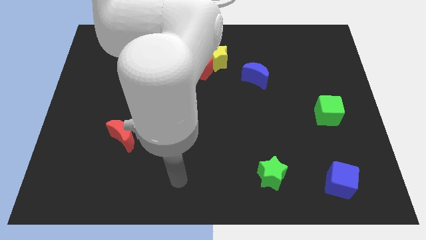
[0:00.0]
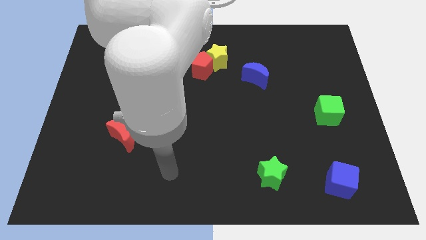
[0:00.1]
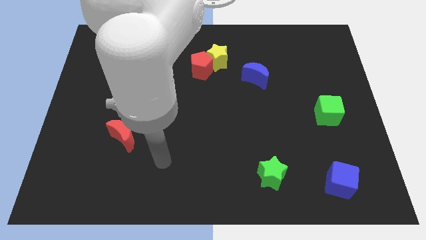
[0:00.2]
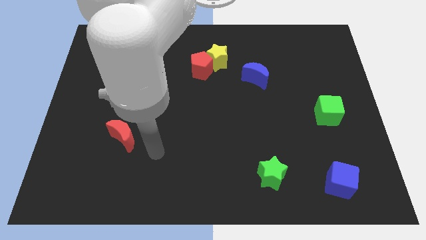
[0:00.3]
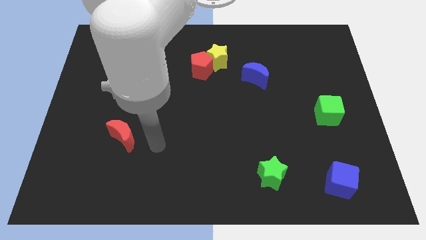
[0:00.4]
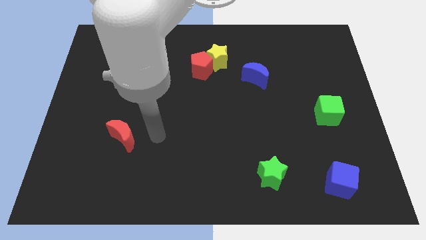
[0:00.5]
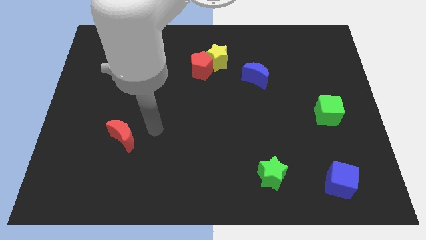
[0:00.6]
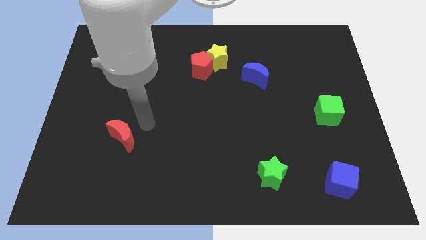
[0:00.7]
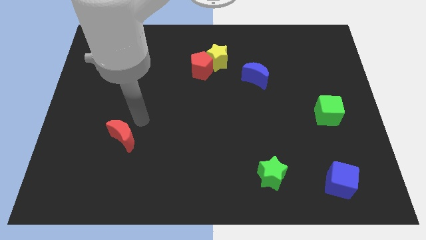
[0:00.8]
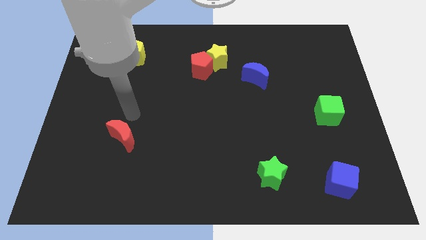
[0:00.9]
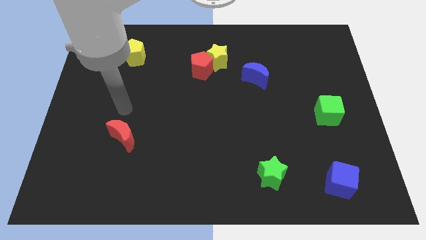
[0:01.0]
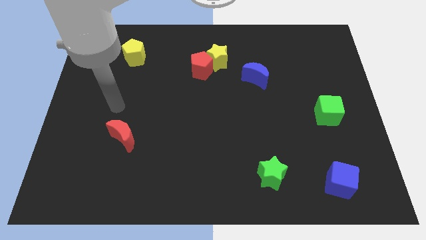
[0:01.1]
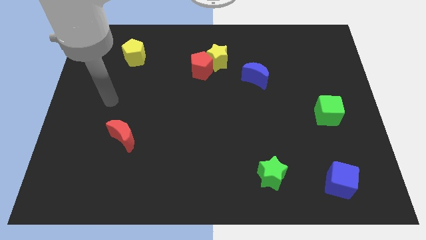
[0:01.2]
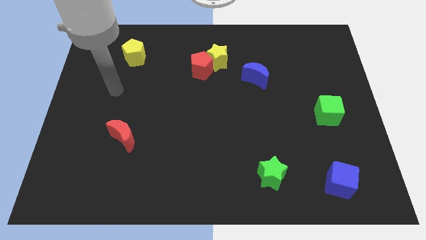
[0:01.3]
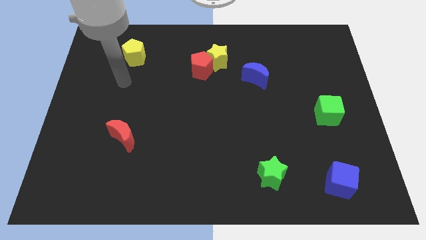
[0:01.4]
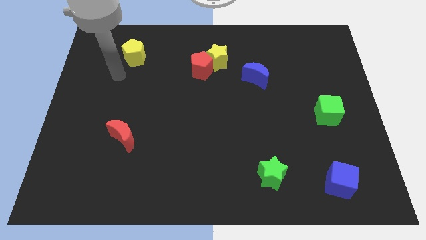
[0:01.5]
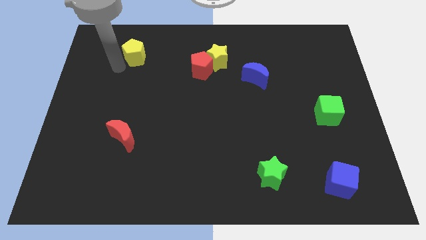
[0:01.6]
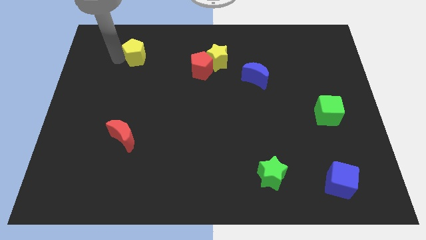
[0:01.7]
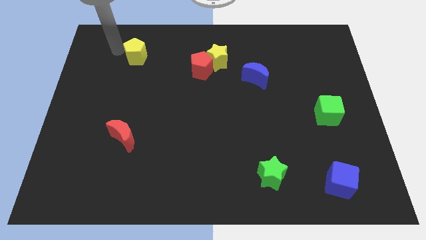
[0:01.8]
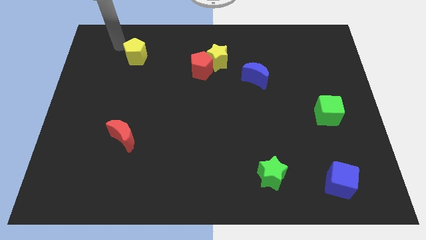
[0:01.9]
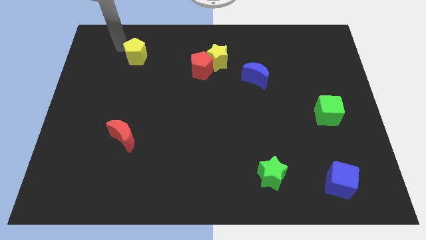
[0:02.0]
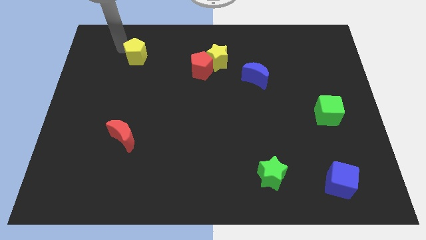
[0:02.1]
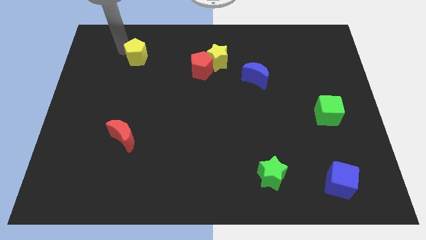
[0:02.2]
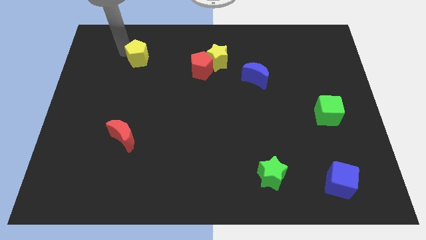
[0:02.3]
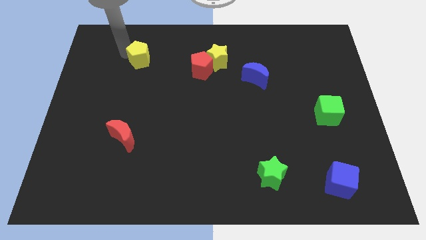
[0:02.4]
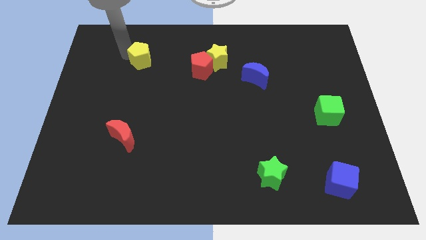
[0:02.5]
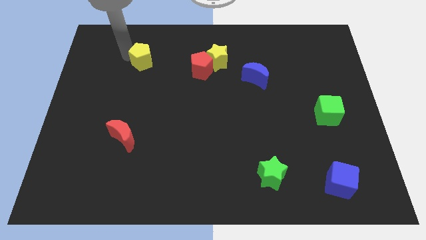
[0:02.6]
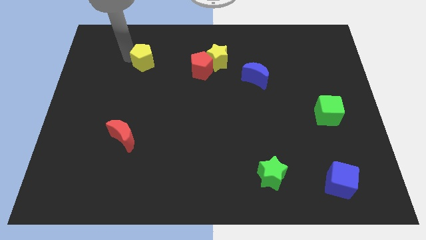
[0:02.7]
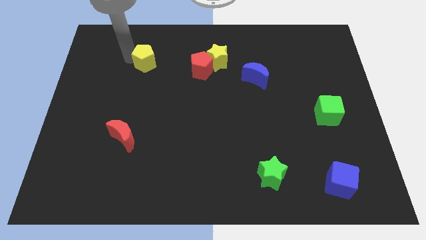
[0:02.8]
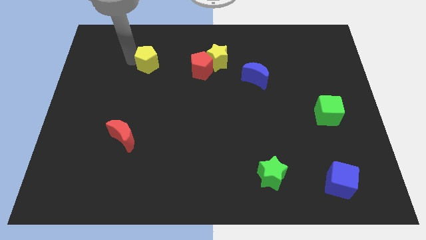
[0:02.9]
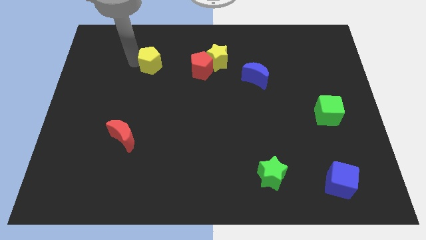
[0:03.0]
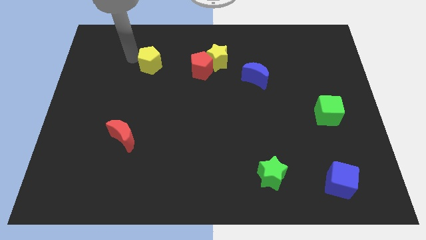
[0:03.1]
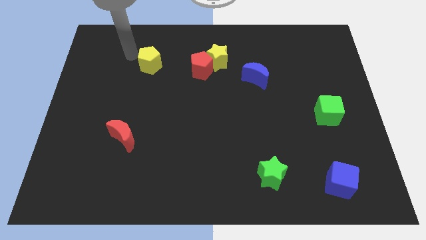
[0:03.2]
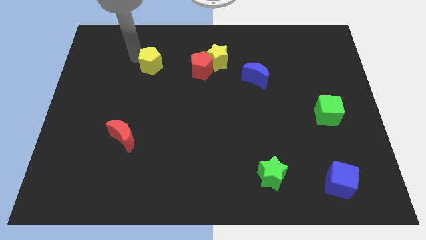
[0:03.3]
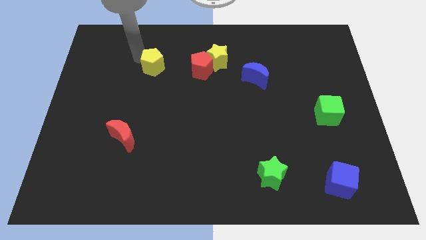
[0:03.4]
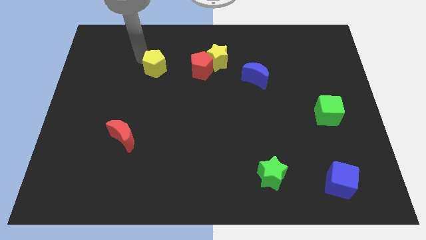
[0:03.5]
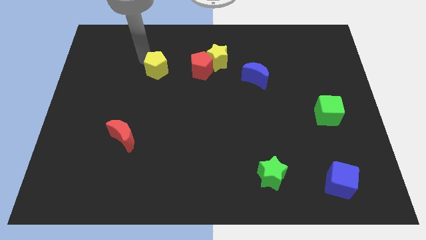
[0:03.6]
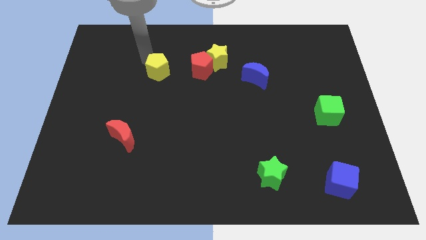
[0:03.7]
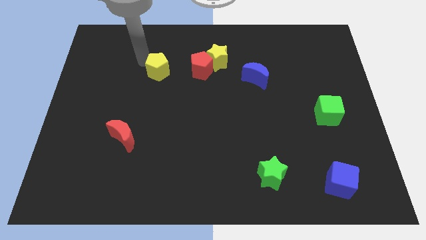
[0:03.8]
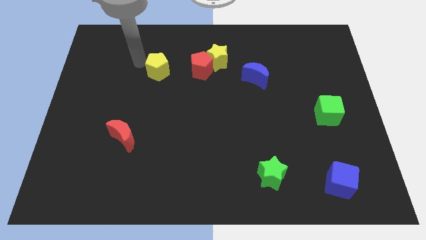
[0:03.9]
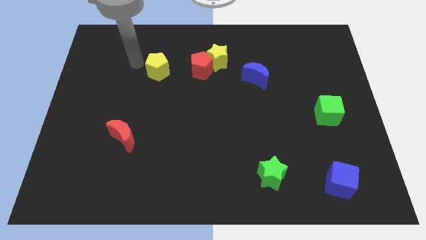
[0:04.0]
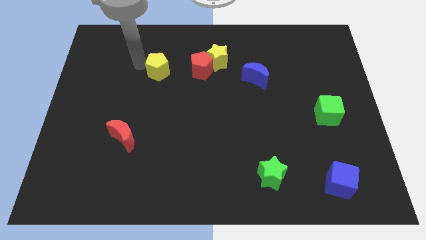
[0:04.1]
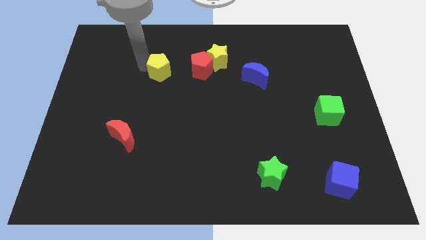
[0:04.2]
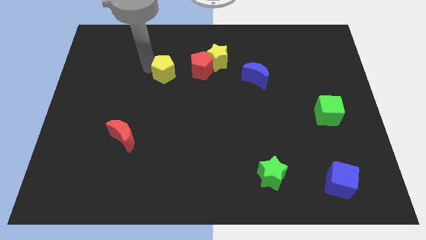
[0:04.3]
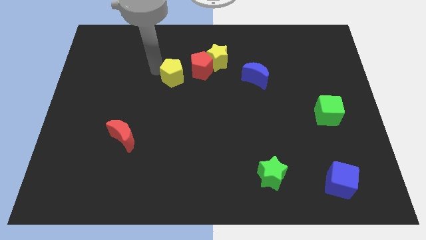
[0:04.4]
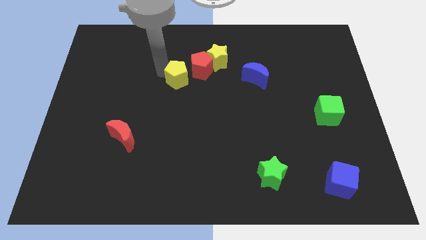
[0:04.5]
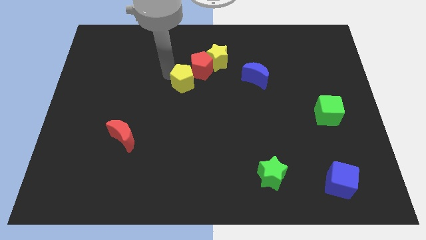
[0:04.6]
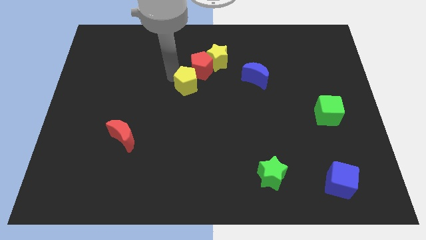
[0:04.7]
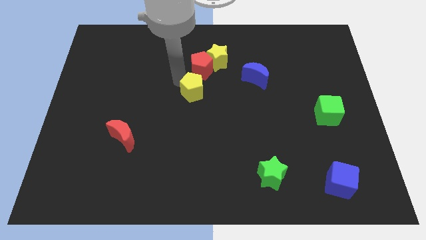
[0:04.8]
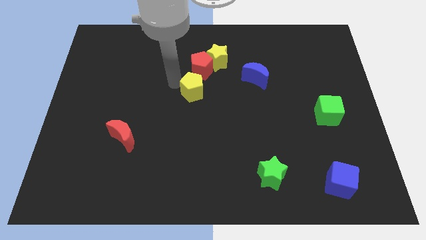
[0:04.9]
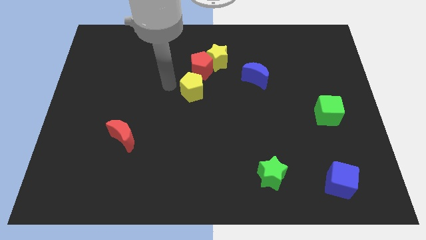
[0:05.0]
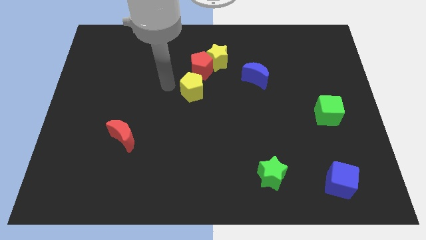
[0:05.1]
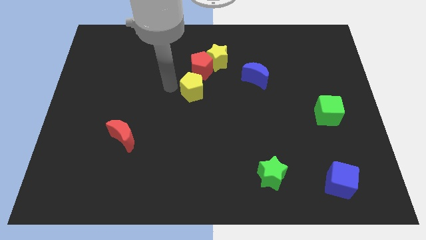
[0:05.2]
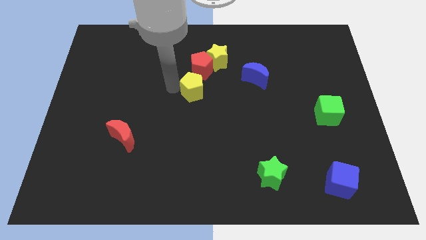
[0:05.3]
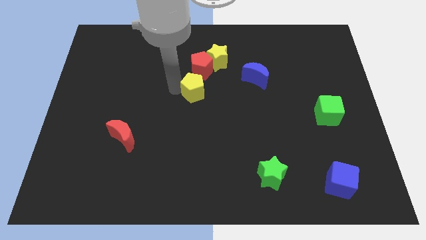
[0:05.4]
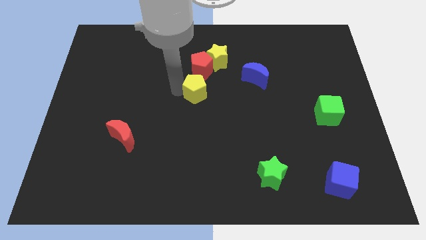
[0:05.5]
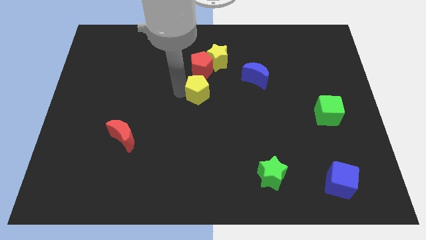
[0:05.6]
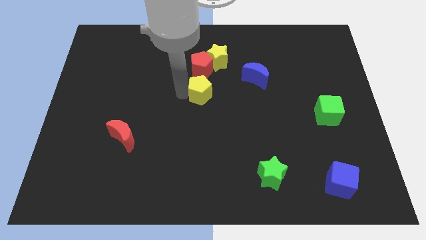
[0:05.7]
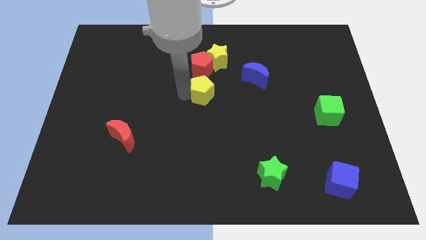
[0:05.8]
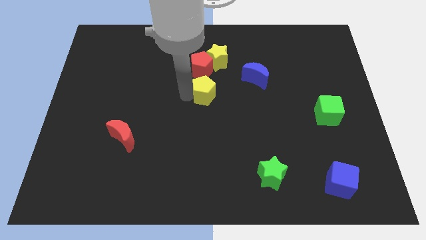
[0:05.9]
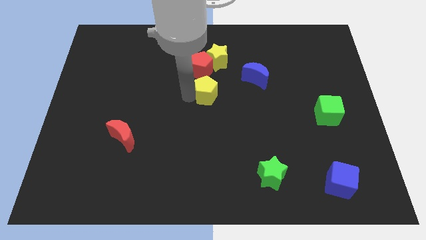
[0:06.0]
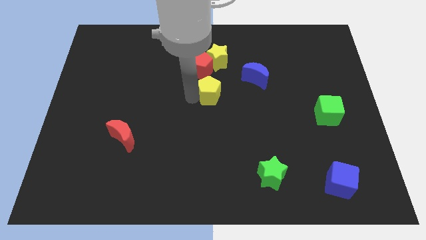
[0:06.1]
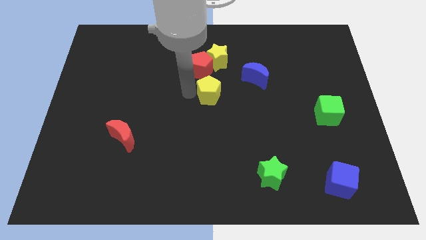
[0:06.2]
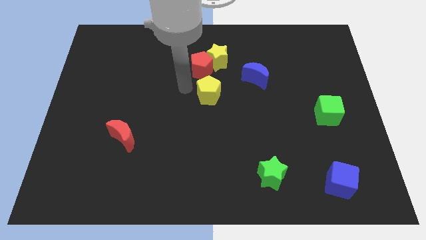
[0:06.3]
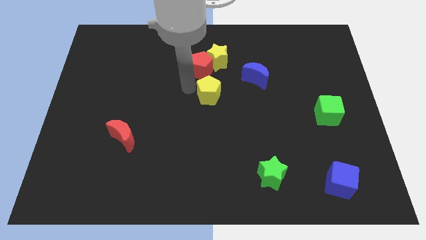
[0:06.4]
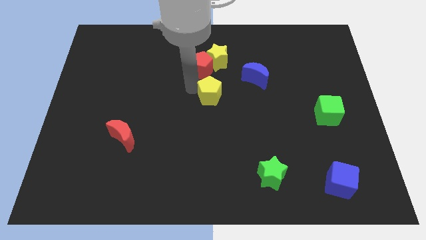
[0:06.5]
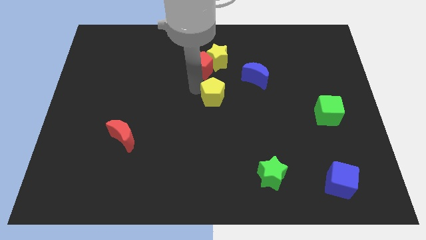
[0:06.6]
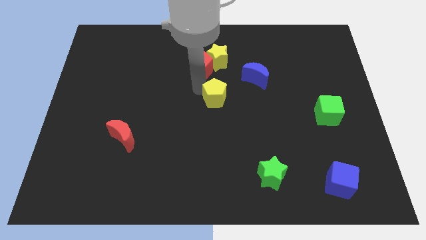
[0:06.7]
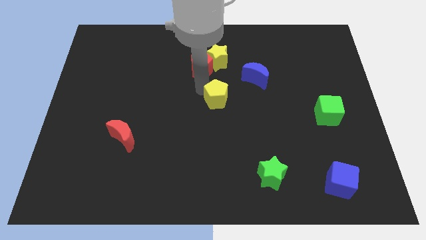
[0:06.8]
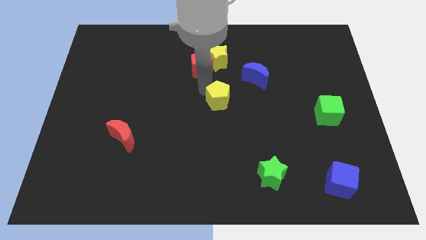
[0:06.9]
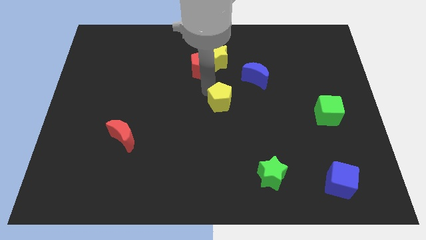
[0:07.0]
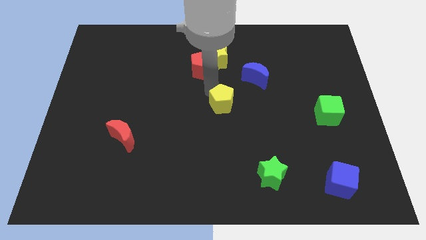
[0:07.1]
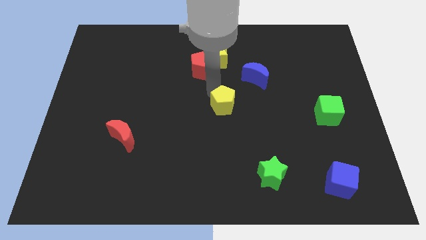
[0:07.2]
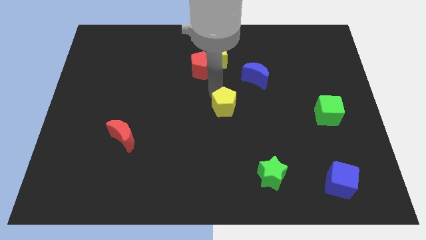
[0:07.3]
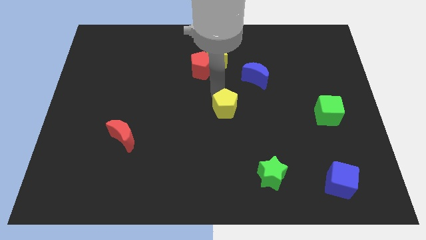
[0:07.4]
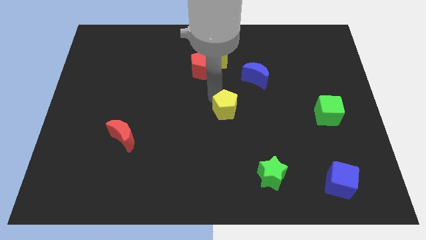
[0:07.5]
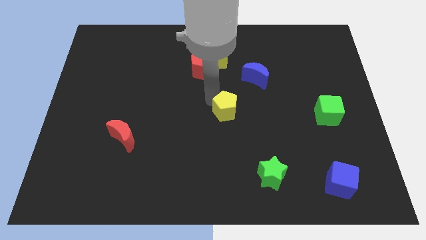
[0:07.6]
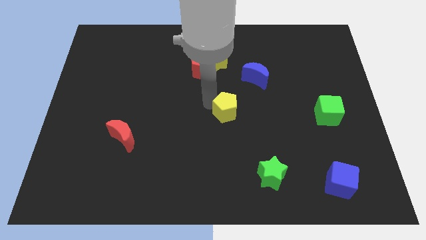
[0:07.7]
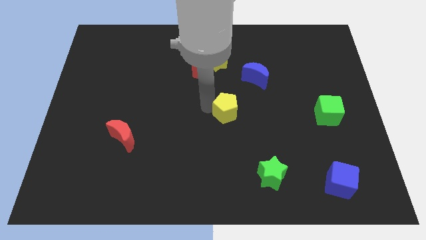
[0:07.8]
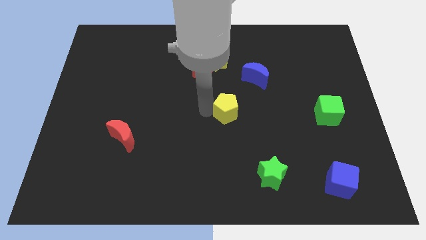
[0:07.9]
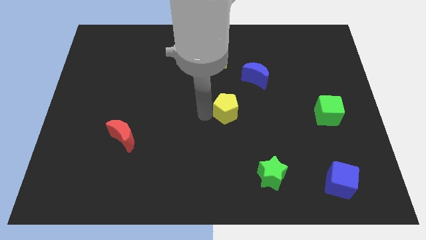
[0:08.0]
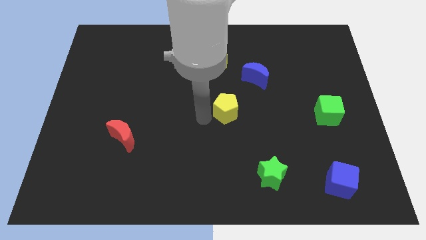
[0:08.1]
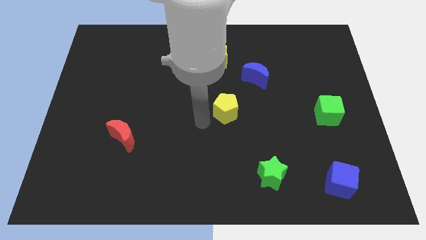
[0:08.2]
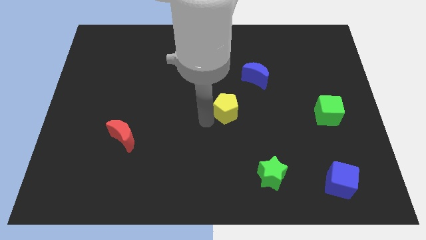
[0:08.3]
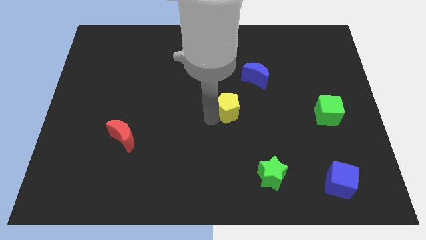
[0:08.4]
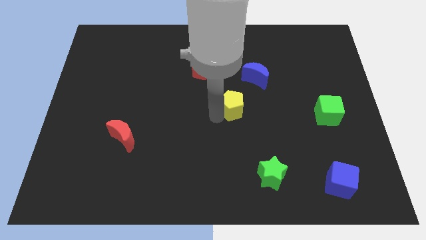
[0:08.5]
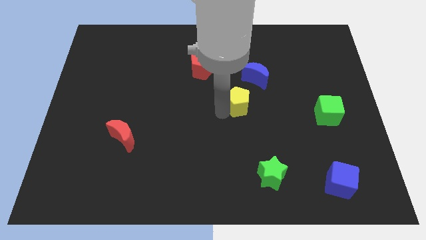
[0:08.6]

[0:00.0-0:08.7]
slide the yellow pentagon to the bottom of the blue moon
